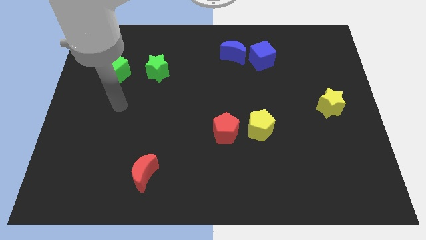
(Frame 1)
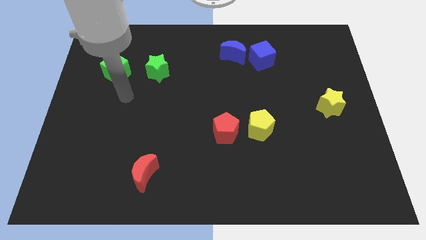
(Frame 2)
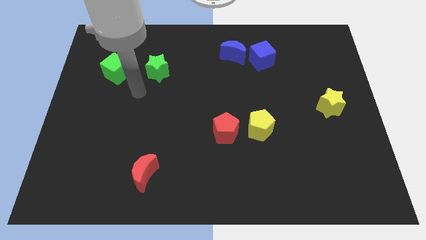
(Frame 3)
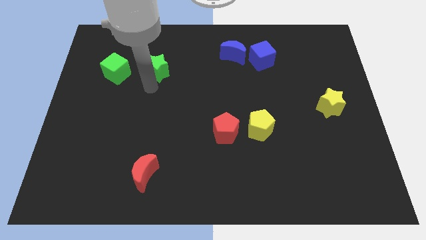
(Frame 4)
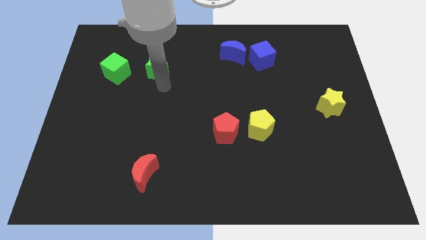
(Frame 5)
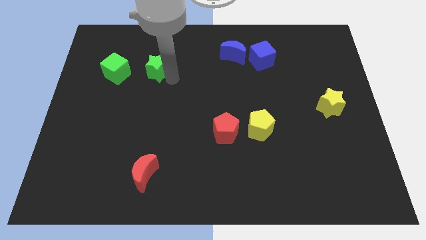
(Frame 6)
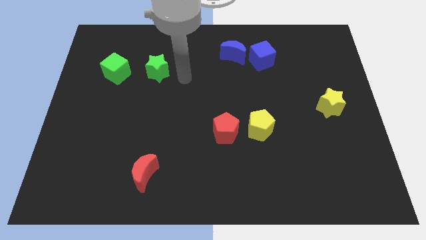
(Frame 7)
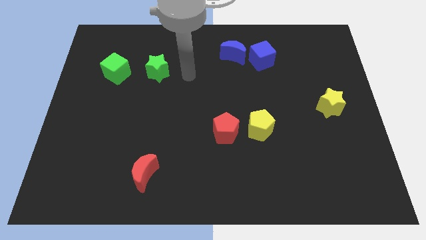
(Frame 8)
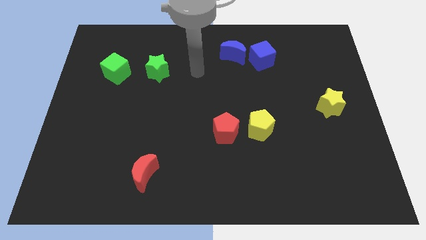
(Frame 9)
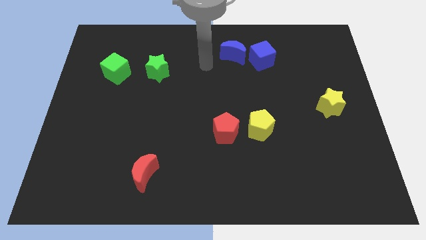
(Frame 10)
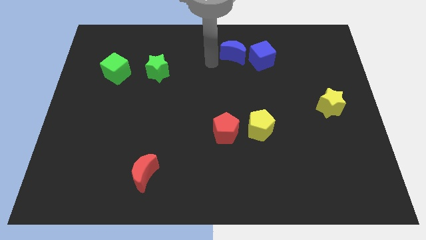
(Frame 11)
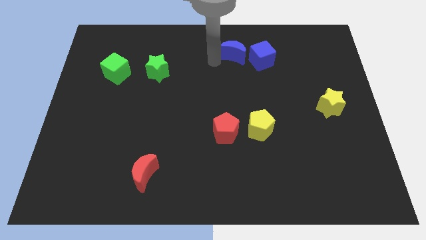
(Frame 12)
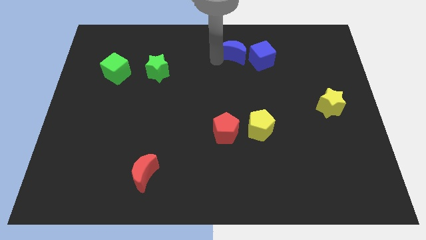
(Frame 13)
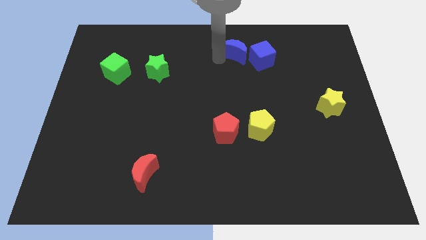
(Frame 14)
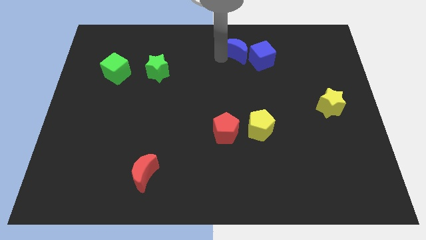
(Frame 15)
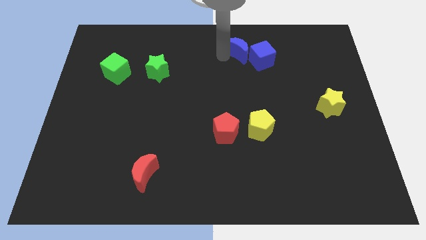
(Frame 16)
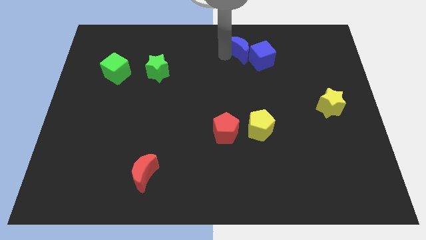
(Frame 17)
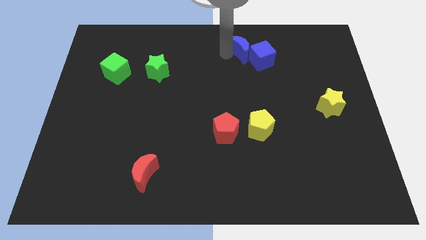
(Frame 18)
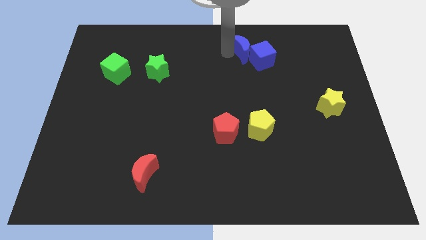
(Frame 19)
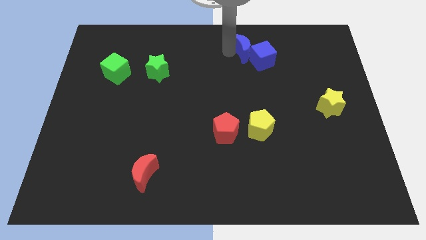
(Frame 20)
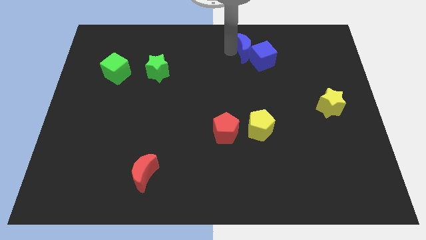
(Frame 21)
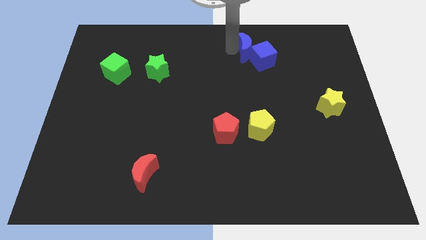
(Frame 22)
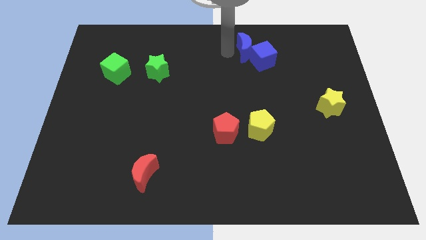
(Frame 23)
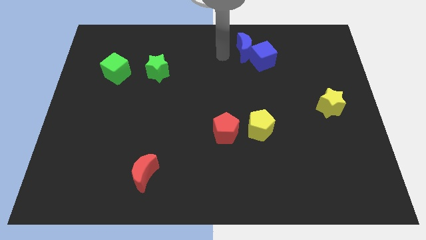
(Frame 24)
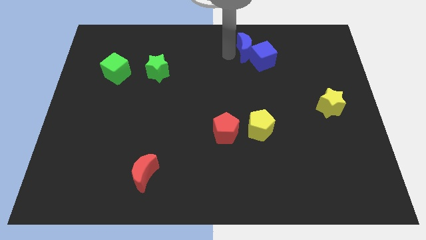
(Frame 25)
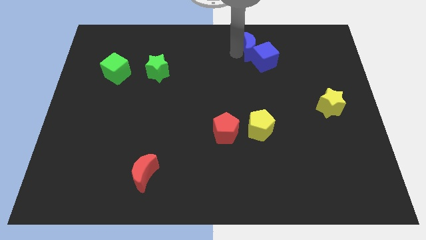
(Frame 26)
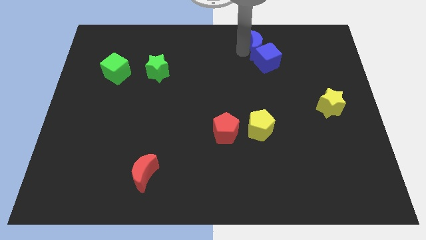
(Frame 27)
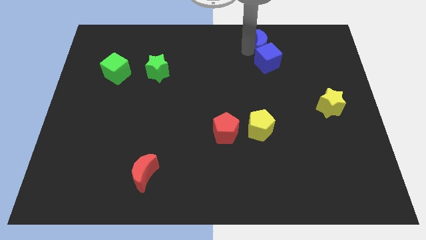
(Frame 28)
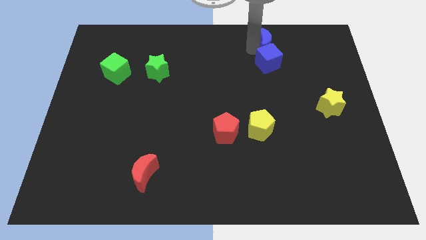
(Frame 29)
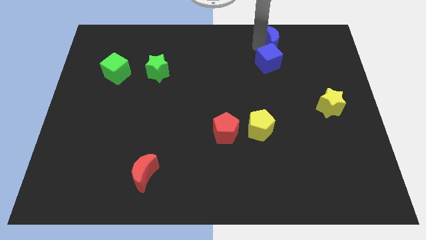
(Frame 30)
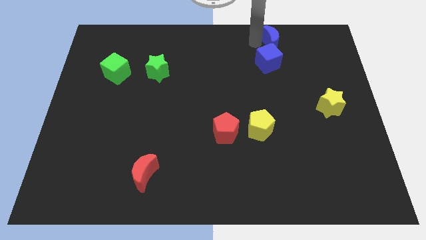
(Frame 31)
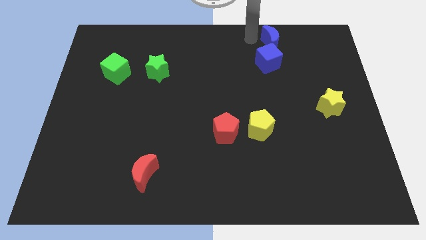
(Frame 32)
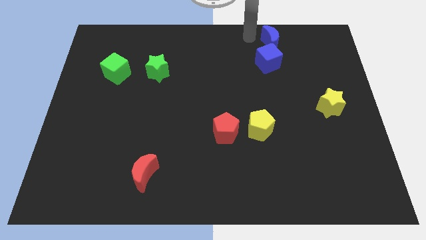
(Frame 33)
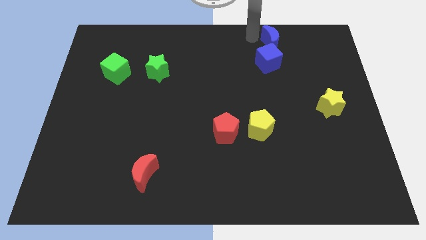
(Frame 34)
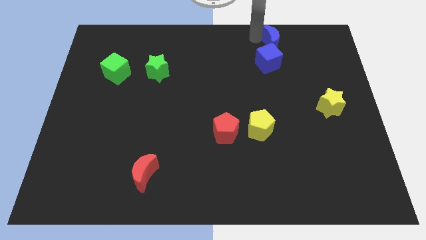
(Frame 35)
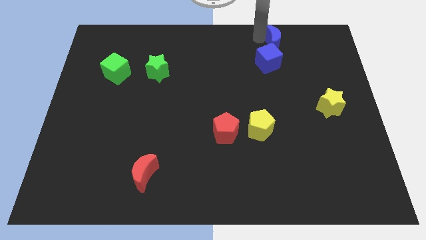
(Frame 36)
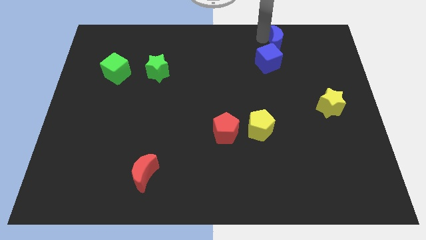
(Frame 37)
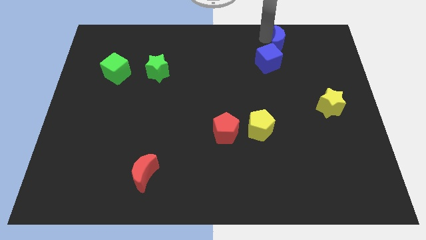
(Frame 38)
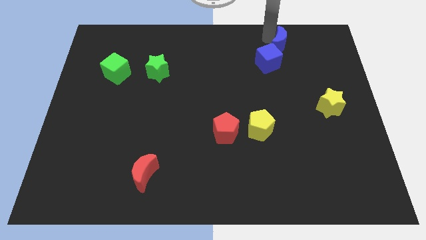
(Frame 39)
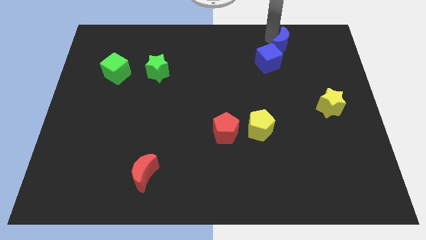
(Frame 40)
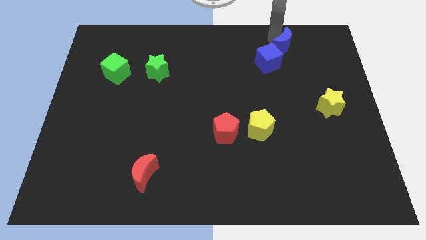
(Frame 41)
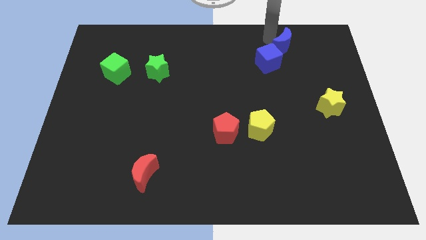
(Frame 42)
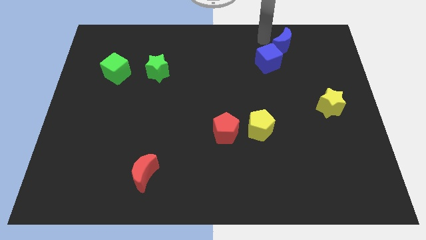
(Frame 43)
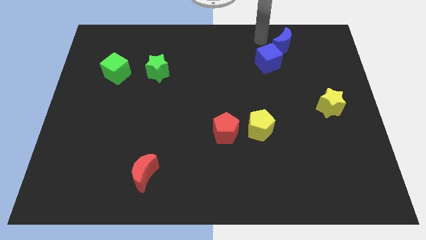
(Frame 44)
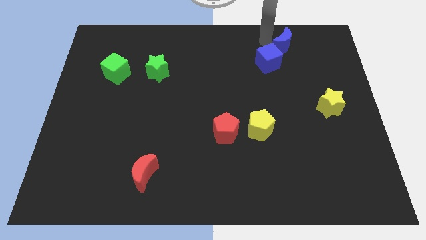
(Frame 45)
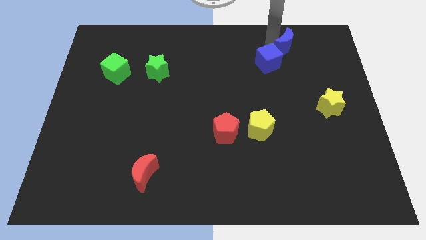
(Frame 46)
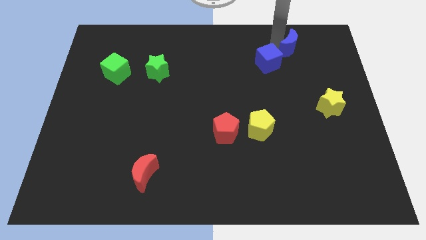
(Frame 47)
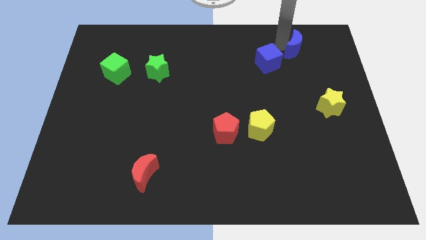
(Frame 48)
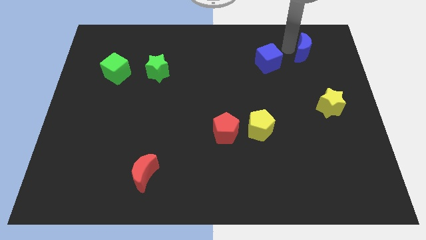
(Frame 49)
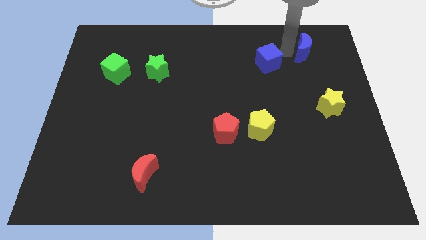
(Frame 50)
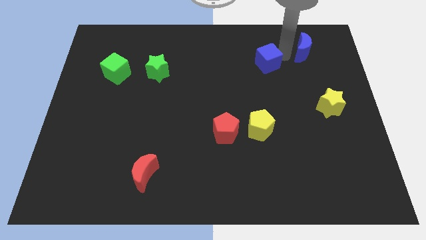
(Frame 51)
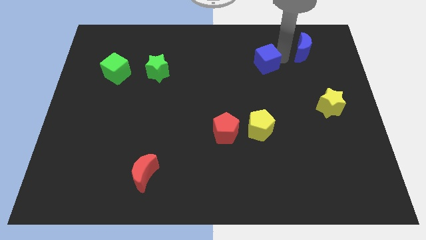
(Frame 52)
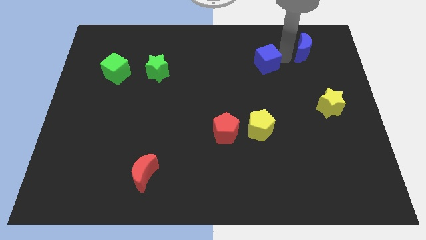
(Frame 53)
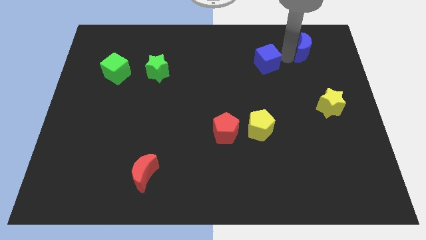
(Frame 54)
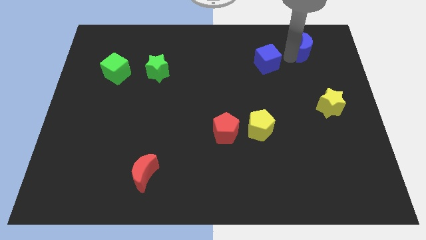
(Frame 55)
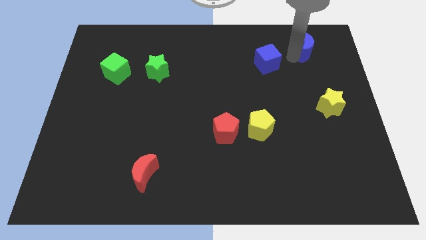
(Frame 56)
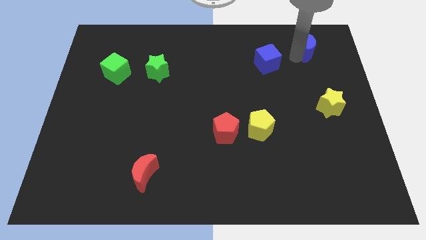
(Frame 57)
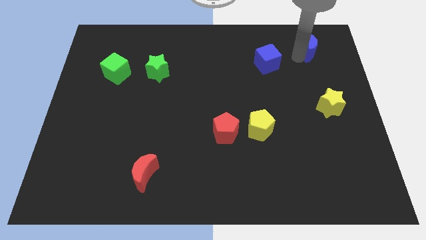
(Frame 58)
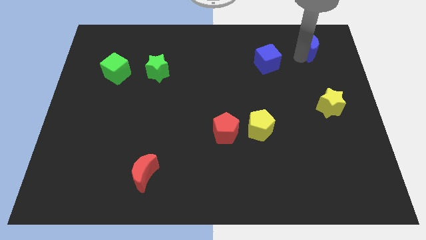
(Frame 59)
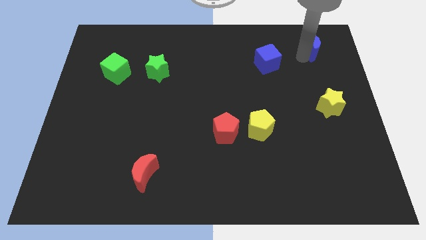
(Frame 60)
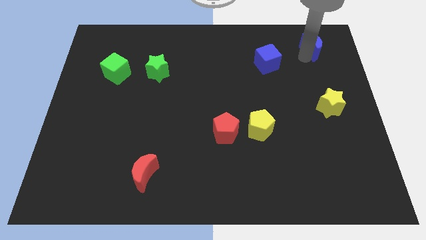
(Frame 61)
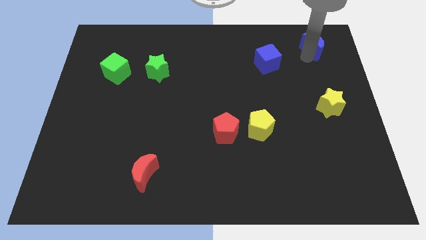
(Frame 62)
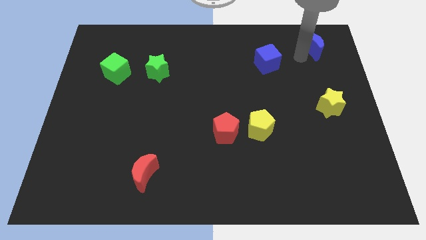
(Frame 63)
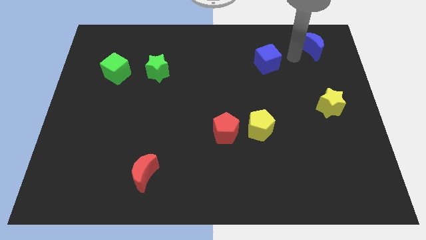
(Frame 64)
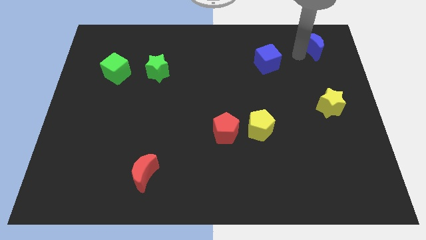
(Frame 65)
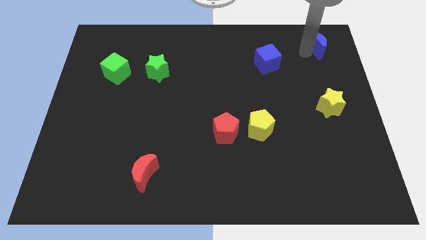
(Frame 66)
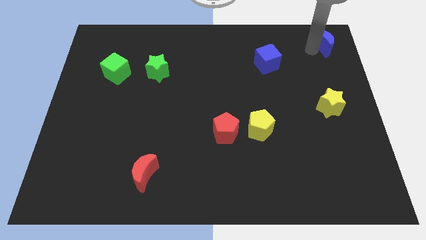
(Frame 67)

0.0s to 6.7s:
slide the blue moon to the top right of the board

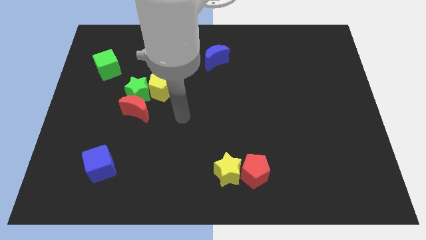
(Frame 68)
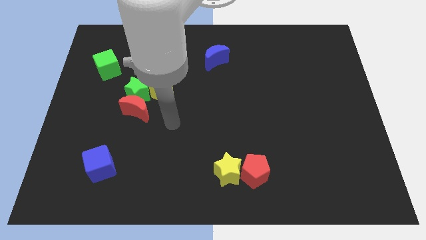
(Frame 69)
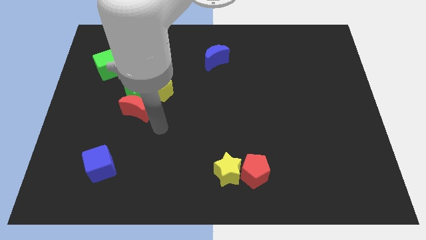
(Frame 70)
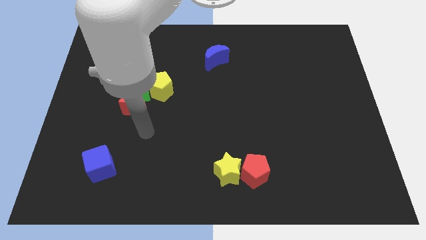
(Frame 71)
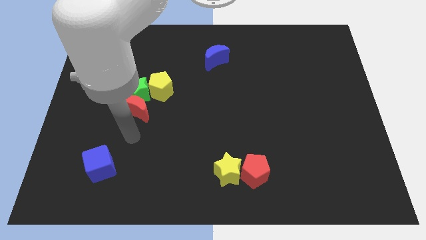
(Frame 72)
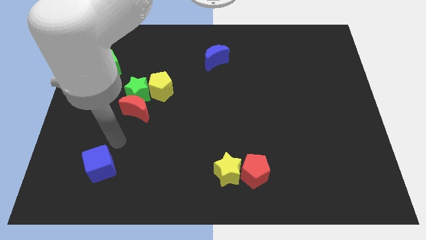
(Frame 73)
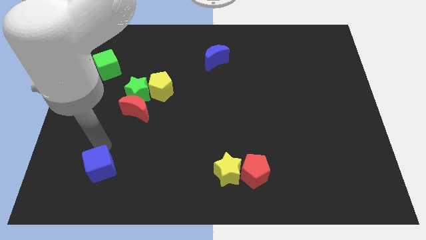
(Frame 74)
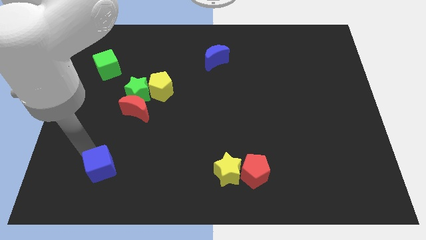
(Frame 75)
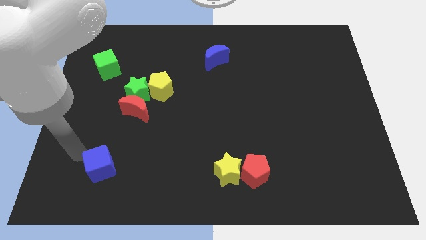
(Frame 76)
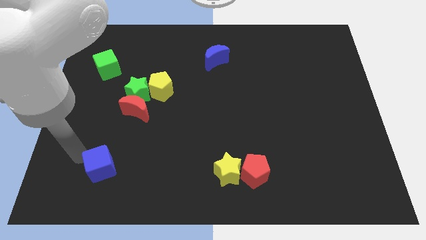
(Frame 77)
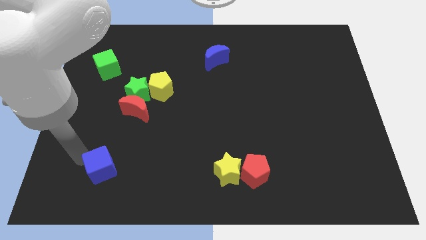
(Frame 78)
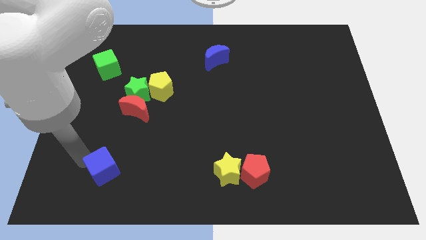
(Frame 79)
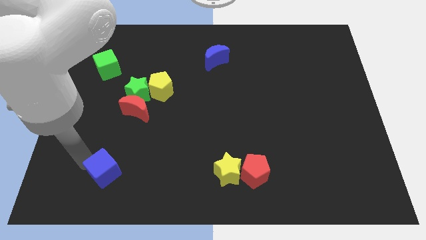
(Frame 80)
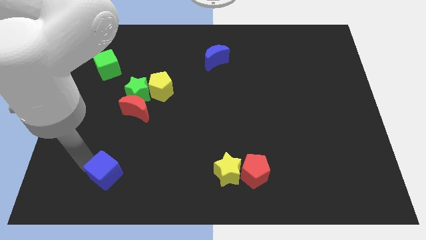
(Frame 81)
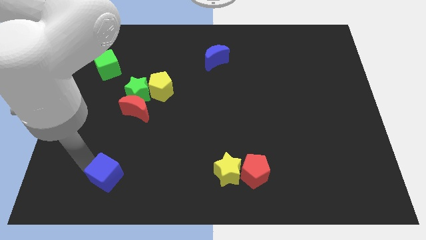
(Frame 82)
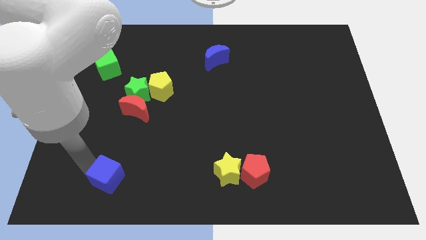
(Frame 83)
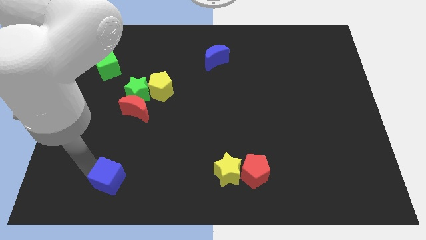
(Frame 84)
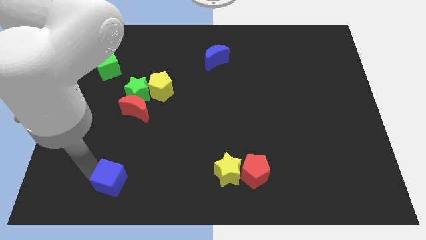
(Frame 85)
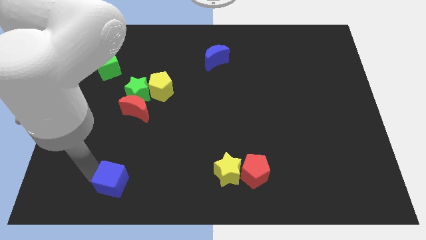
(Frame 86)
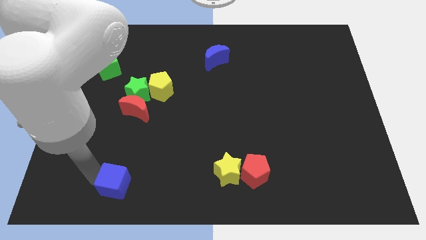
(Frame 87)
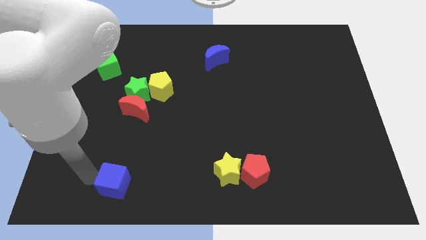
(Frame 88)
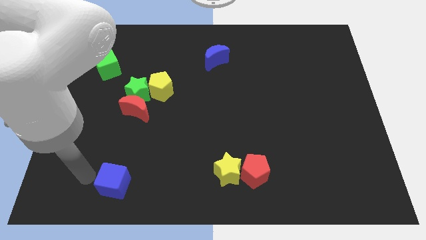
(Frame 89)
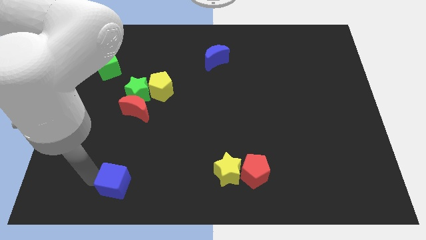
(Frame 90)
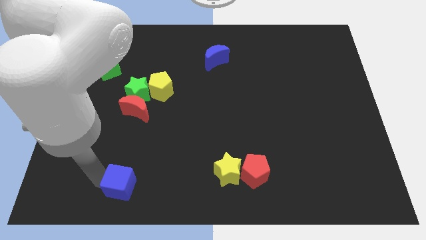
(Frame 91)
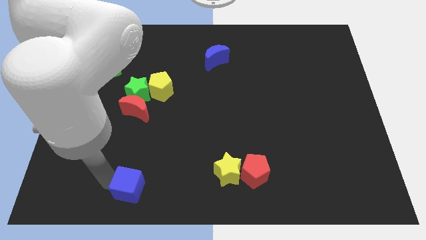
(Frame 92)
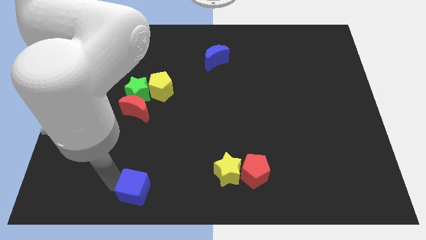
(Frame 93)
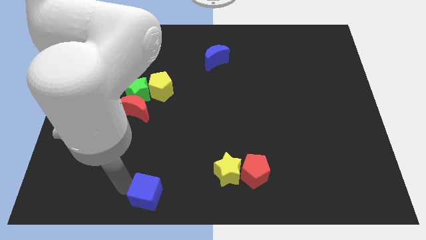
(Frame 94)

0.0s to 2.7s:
push the blue cube to the bottom
